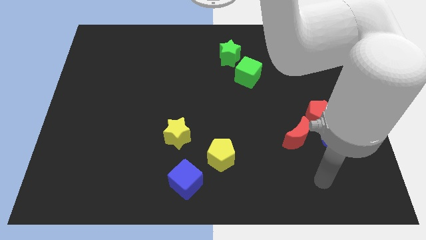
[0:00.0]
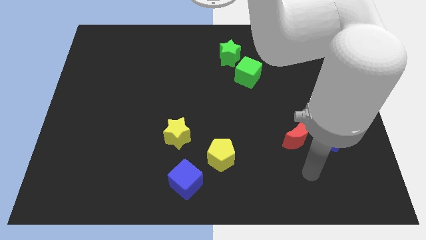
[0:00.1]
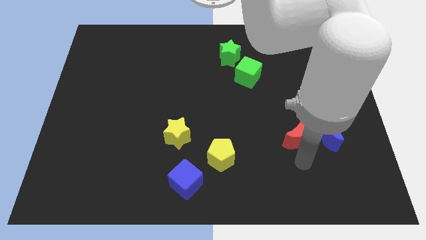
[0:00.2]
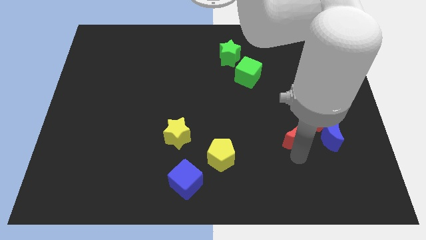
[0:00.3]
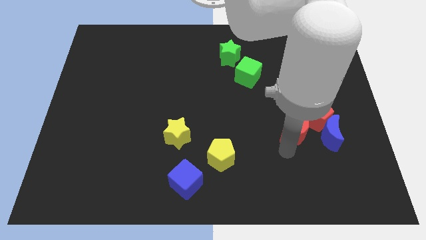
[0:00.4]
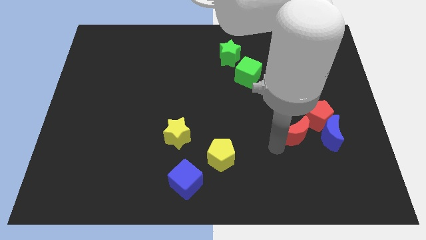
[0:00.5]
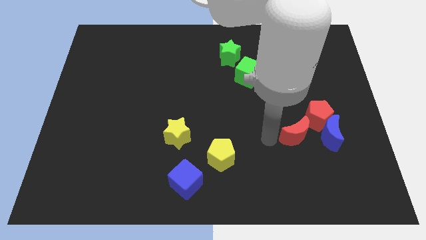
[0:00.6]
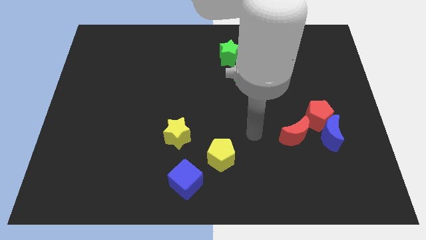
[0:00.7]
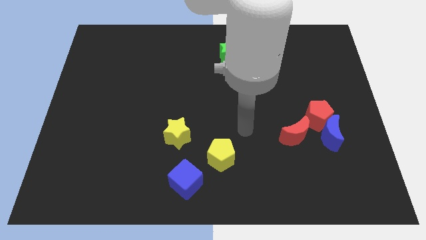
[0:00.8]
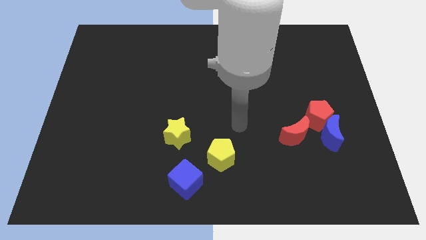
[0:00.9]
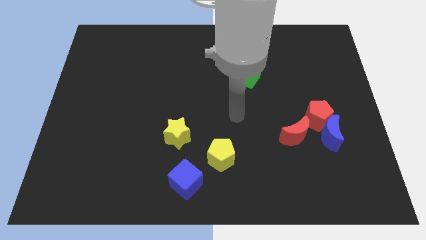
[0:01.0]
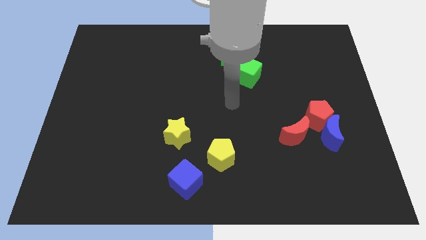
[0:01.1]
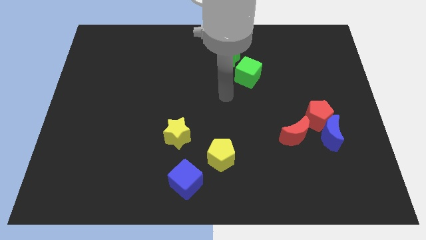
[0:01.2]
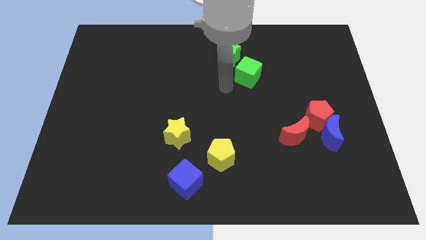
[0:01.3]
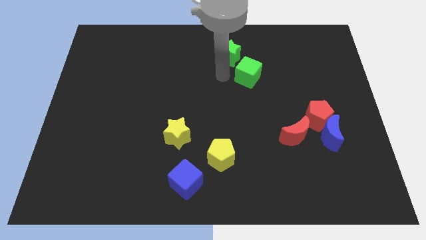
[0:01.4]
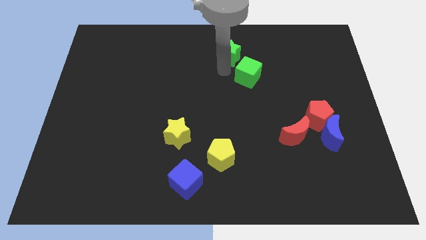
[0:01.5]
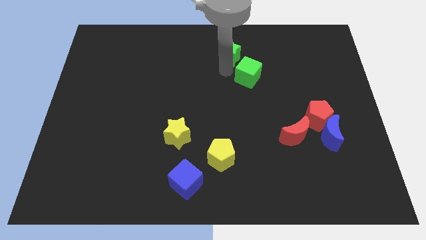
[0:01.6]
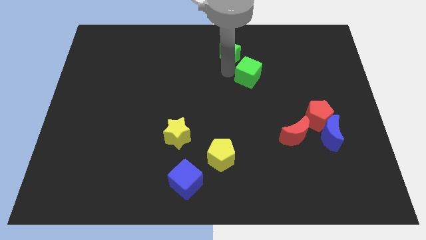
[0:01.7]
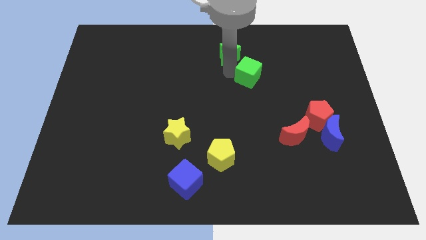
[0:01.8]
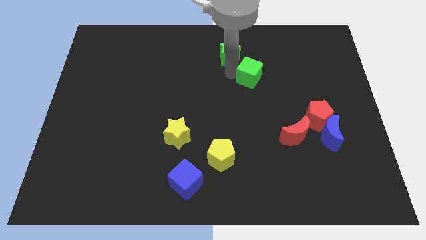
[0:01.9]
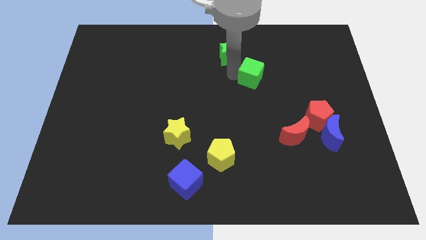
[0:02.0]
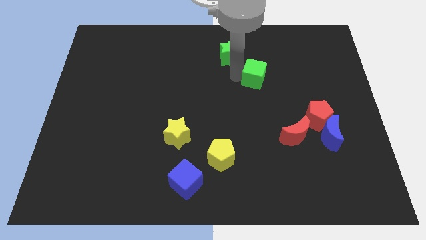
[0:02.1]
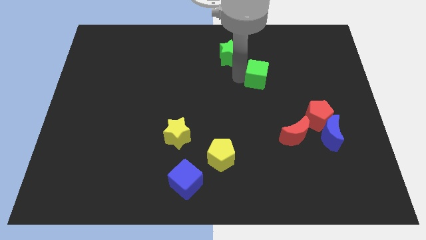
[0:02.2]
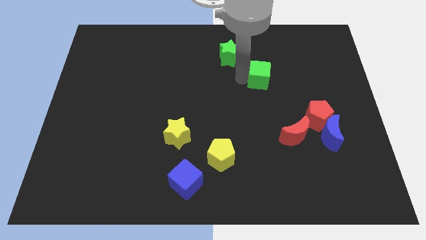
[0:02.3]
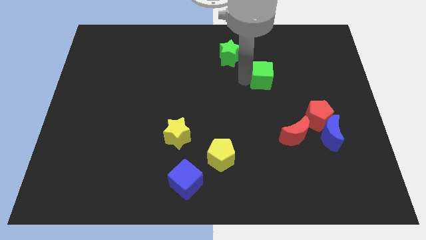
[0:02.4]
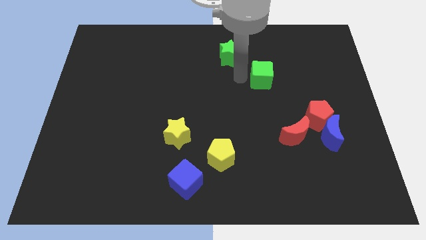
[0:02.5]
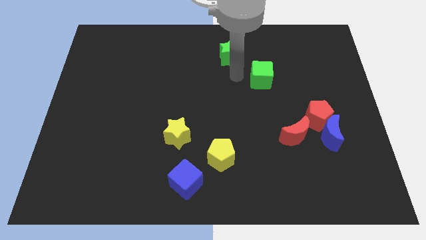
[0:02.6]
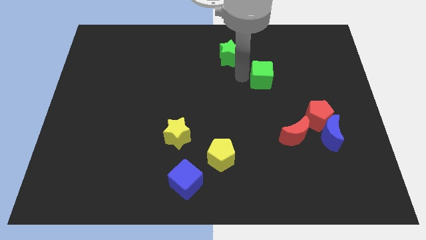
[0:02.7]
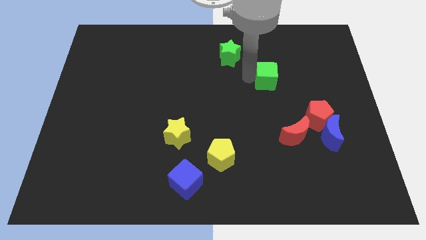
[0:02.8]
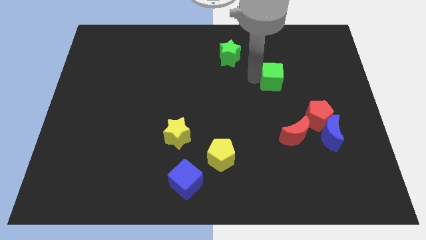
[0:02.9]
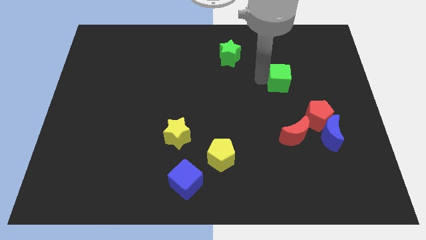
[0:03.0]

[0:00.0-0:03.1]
push the green cube a bit to the right

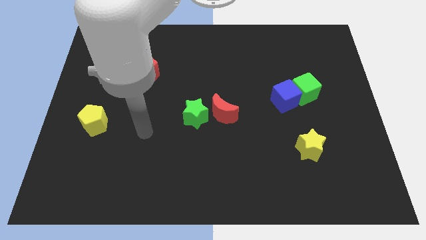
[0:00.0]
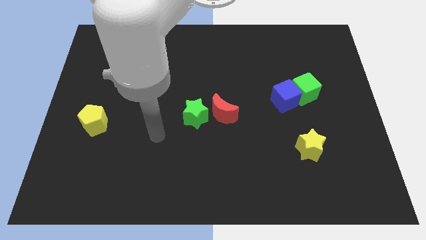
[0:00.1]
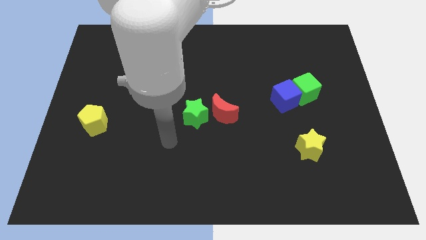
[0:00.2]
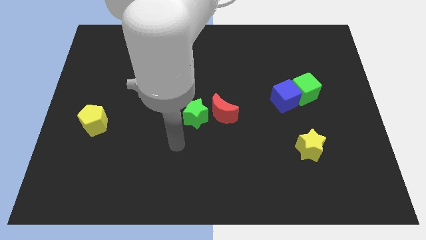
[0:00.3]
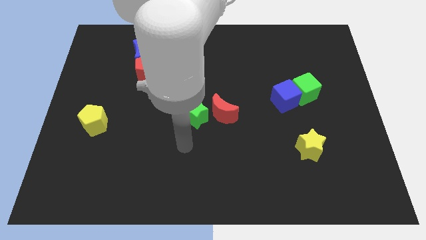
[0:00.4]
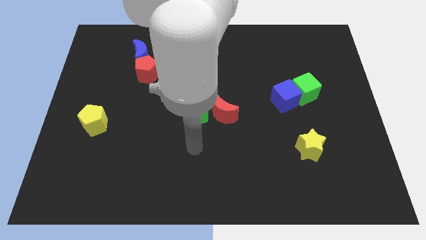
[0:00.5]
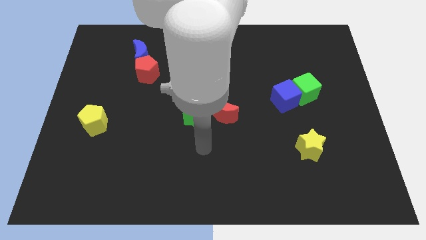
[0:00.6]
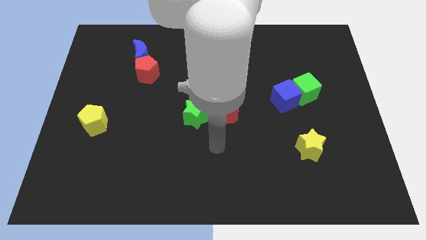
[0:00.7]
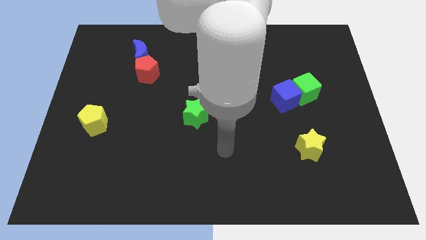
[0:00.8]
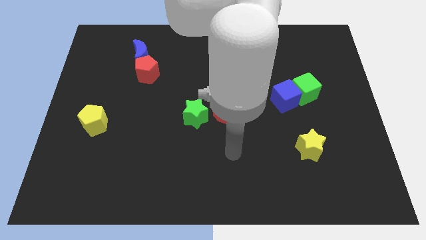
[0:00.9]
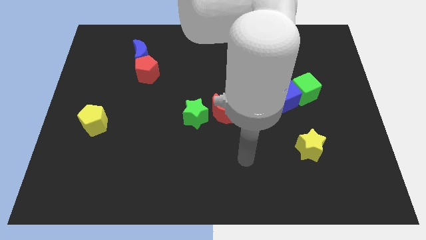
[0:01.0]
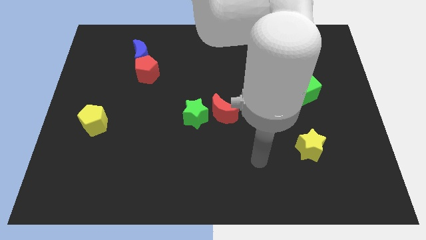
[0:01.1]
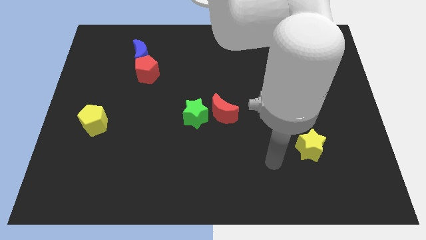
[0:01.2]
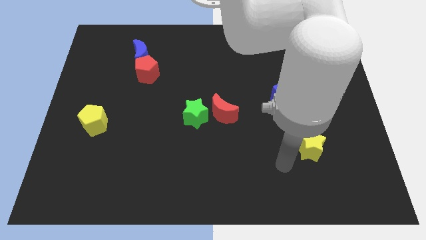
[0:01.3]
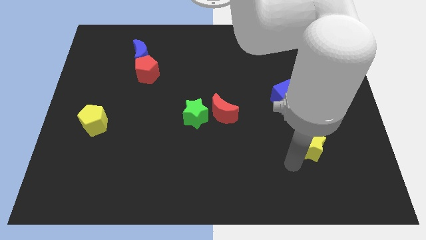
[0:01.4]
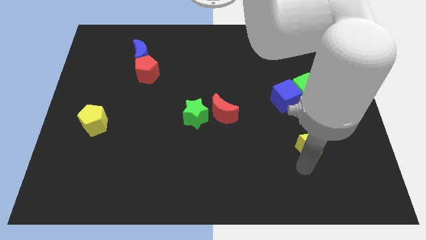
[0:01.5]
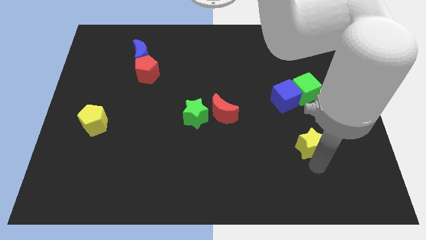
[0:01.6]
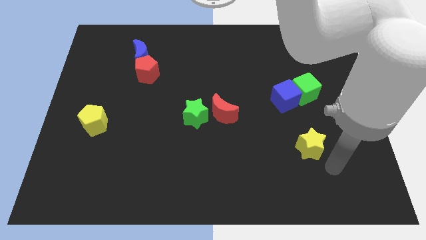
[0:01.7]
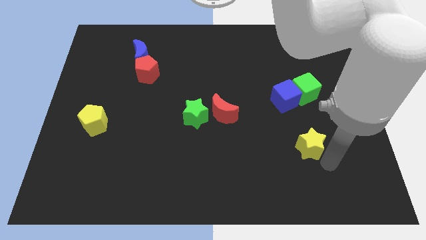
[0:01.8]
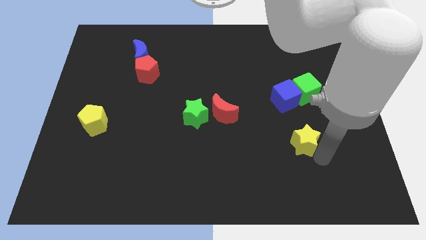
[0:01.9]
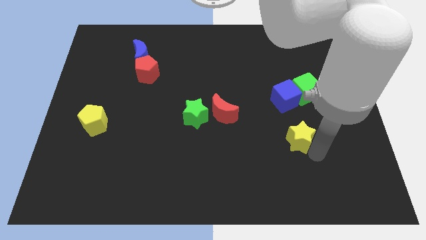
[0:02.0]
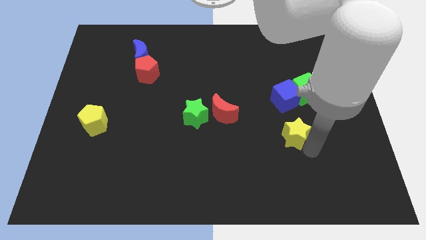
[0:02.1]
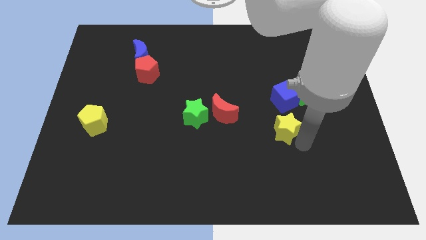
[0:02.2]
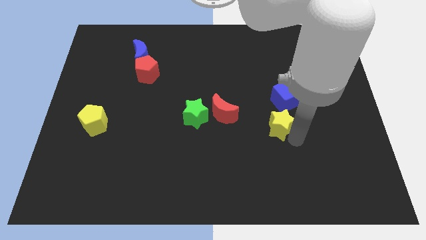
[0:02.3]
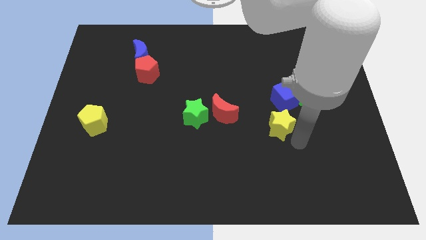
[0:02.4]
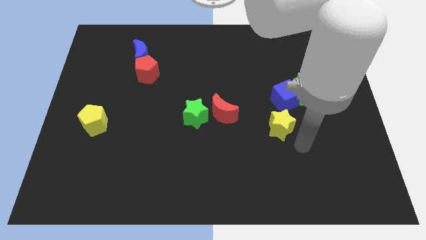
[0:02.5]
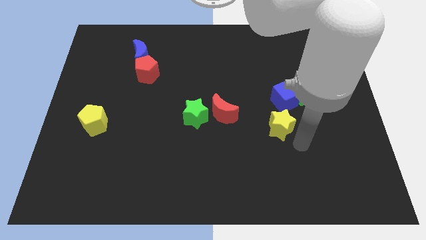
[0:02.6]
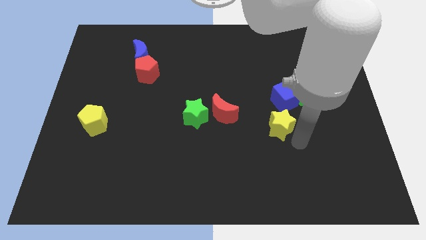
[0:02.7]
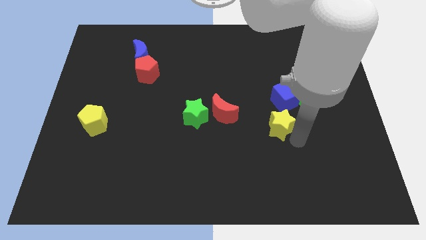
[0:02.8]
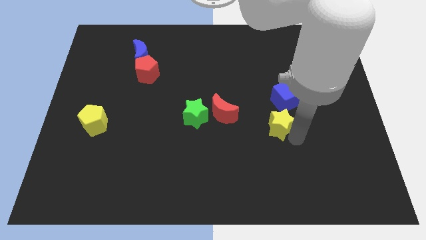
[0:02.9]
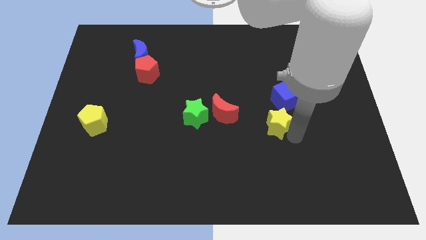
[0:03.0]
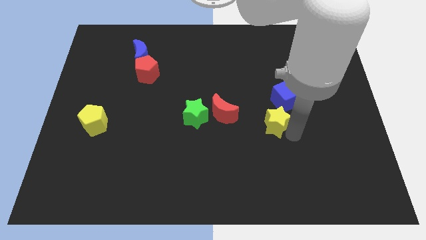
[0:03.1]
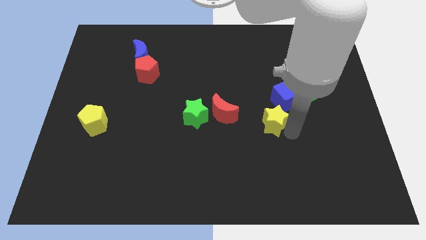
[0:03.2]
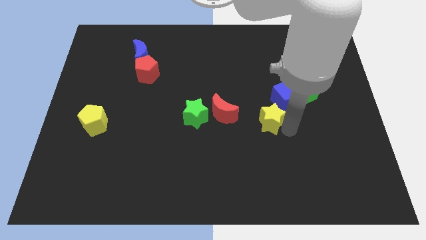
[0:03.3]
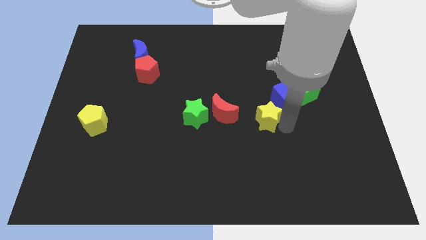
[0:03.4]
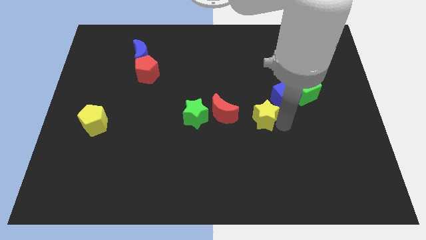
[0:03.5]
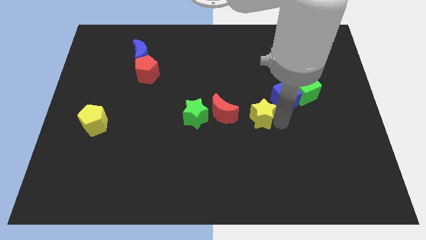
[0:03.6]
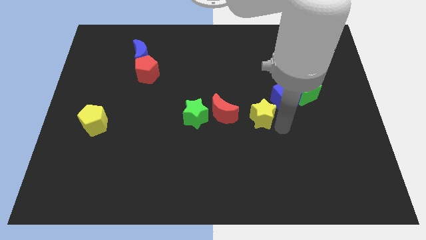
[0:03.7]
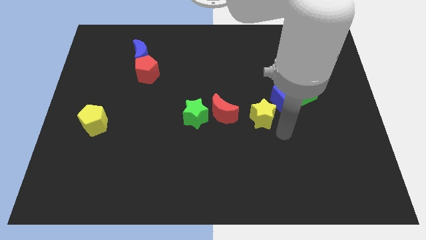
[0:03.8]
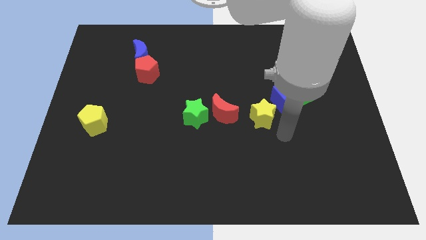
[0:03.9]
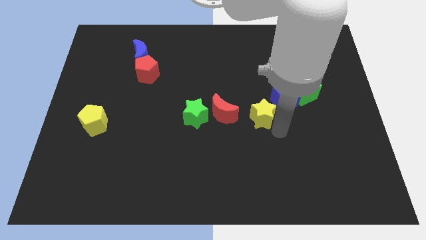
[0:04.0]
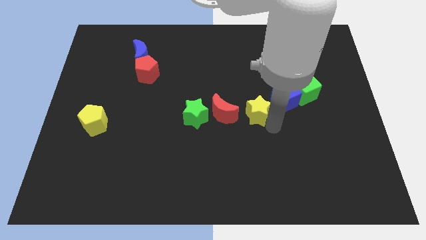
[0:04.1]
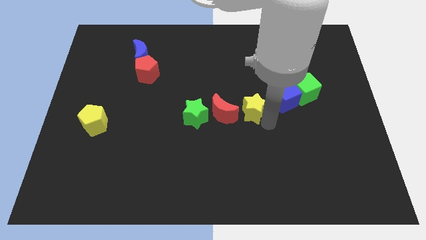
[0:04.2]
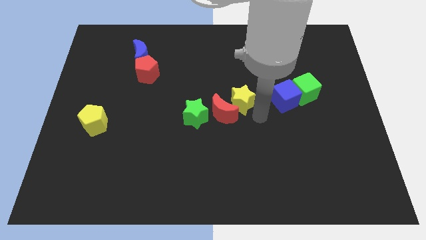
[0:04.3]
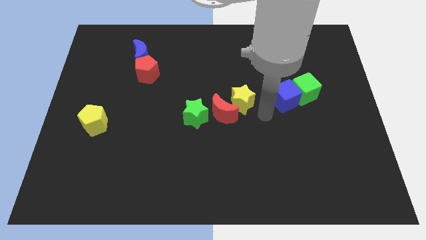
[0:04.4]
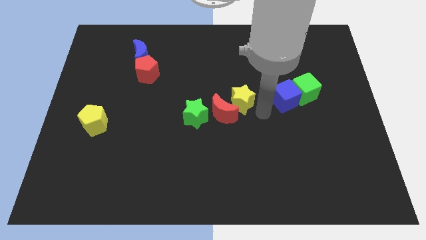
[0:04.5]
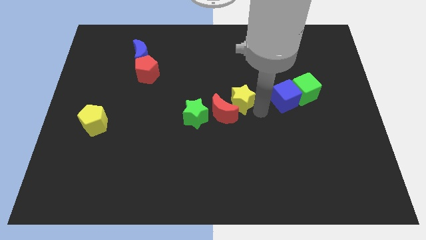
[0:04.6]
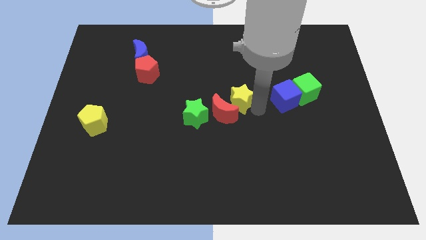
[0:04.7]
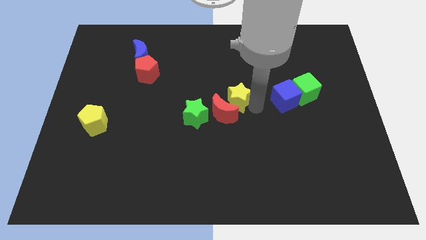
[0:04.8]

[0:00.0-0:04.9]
slide the yellow star diagonally upwards and left

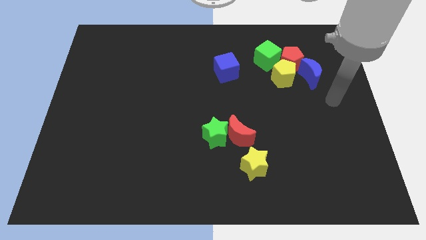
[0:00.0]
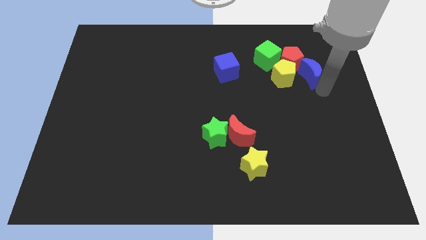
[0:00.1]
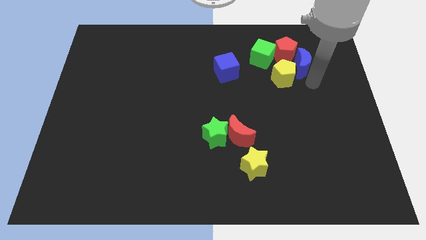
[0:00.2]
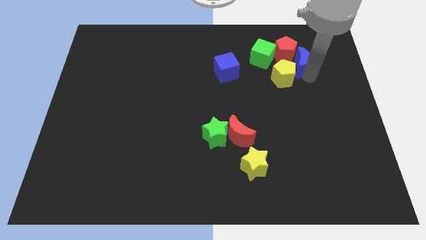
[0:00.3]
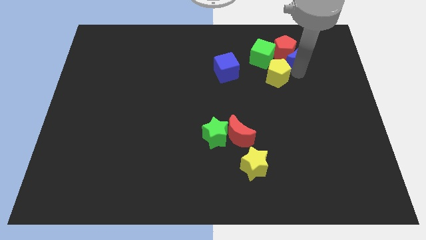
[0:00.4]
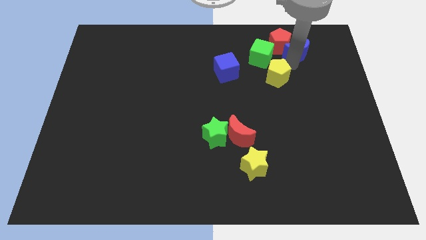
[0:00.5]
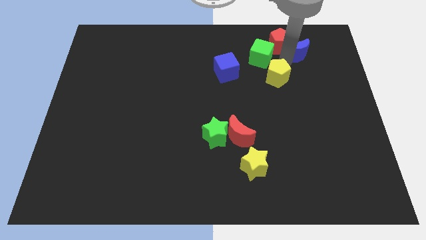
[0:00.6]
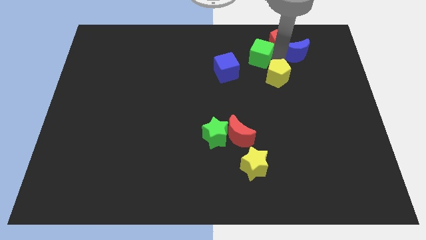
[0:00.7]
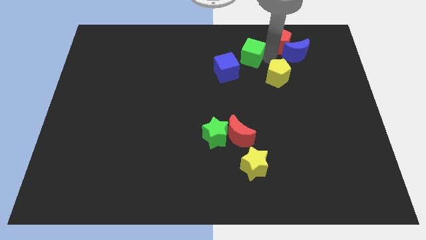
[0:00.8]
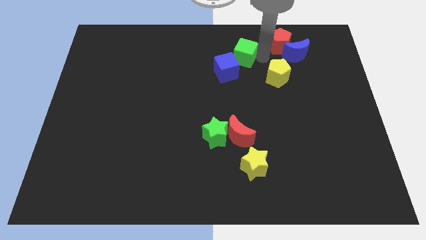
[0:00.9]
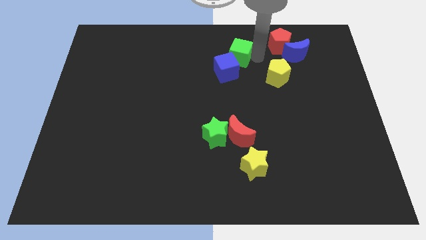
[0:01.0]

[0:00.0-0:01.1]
move the green cube left somewhat
